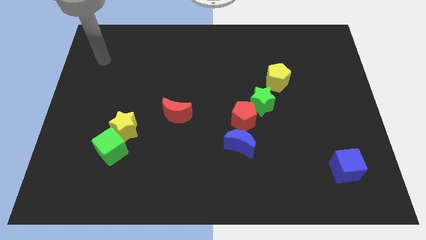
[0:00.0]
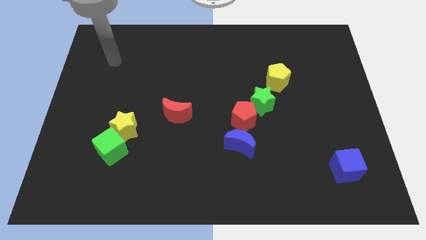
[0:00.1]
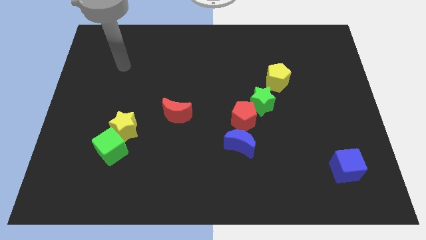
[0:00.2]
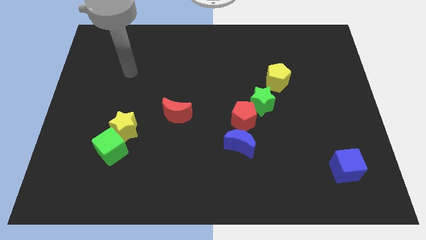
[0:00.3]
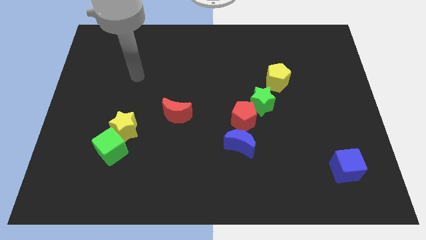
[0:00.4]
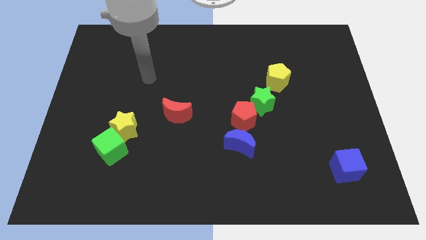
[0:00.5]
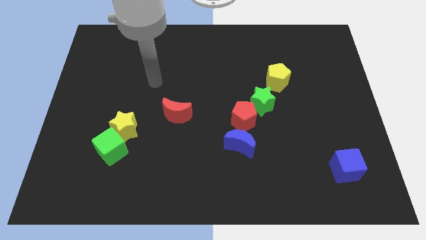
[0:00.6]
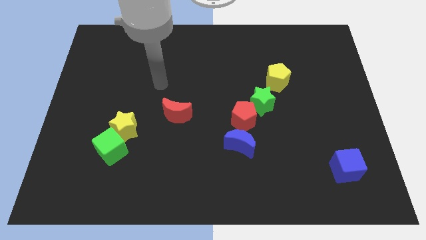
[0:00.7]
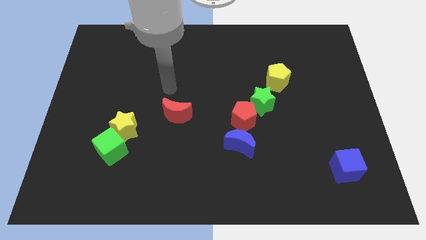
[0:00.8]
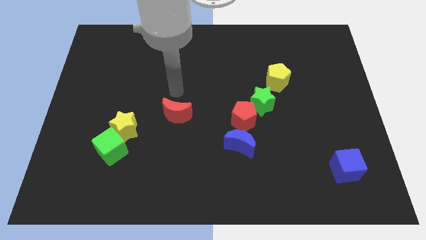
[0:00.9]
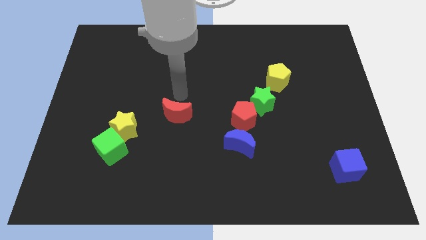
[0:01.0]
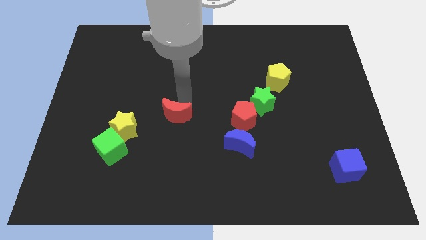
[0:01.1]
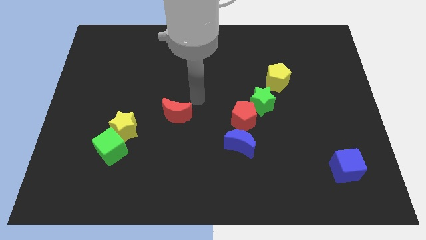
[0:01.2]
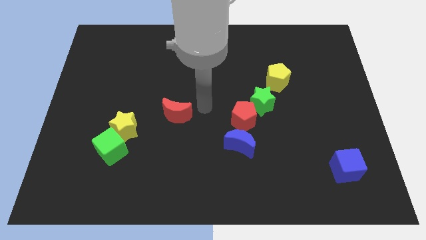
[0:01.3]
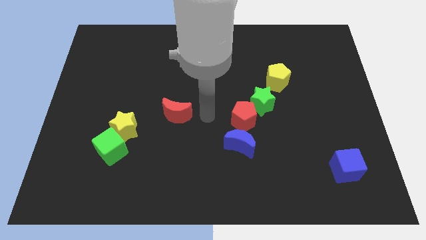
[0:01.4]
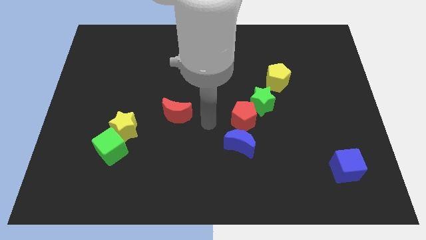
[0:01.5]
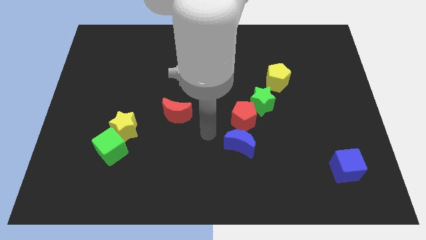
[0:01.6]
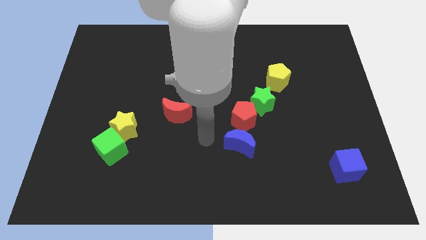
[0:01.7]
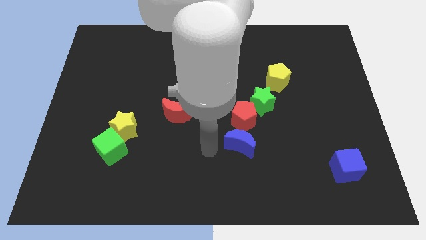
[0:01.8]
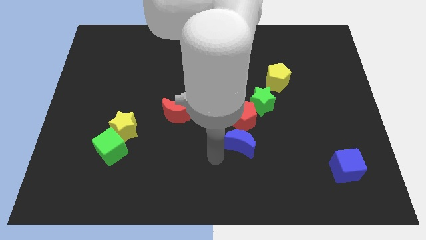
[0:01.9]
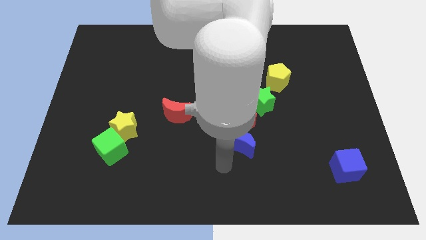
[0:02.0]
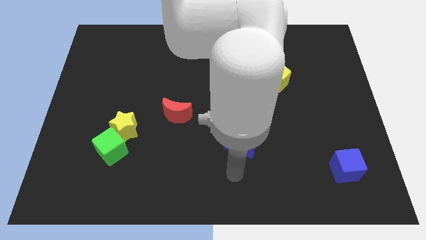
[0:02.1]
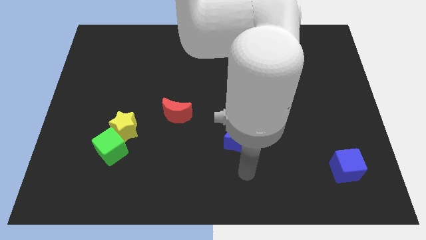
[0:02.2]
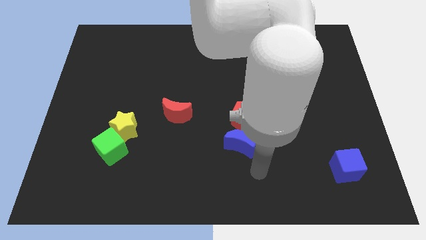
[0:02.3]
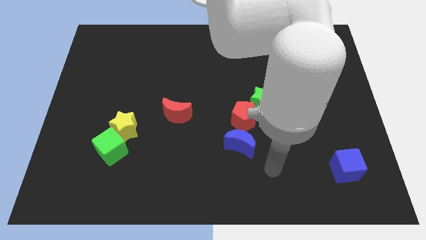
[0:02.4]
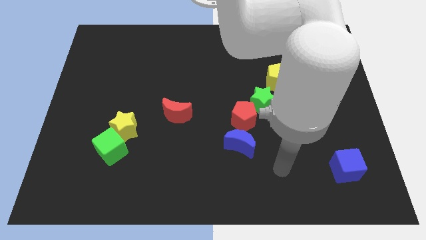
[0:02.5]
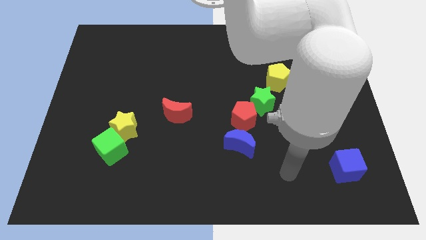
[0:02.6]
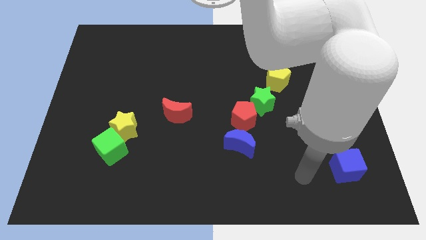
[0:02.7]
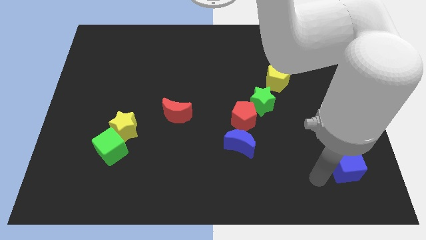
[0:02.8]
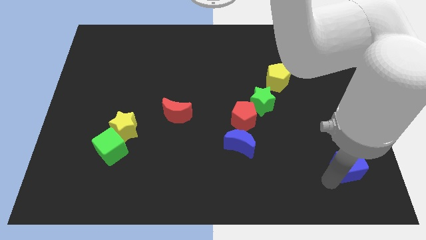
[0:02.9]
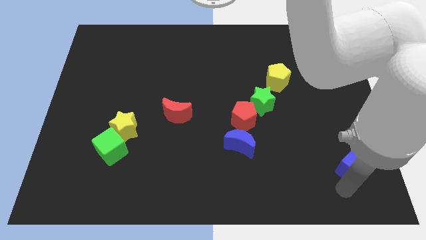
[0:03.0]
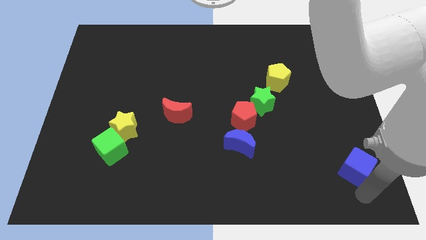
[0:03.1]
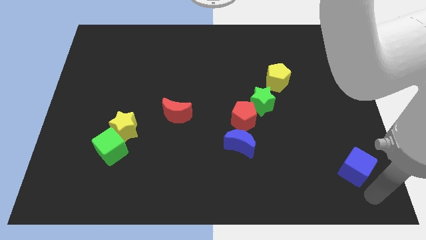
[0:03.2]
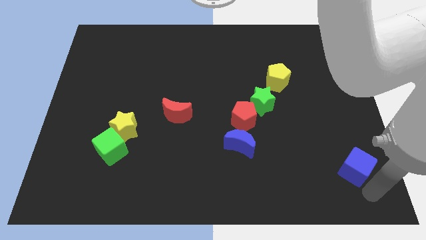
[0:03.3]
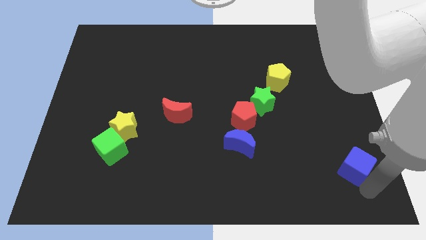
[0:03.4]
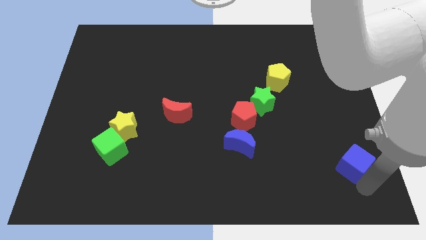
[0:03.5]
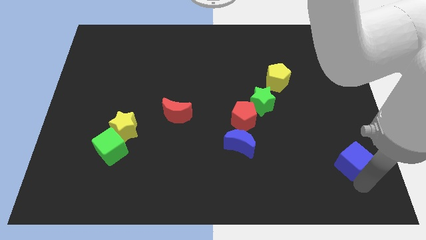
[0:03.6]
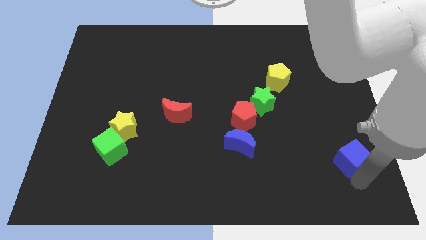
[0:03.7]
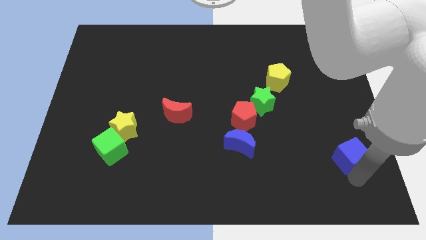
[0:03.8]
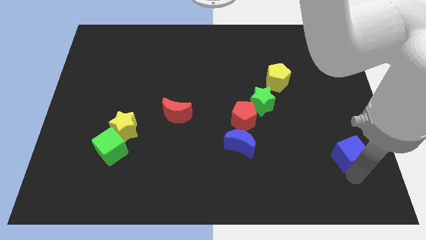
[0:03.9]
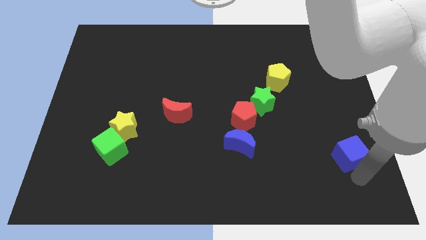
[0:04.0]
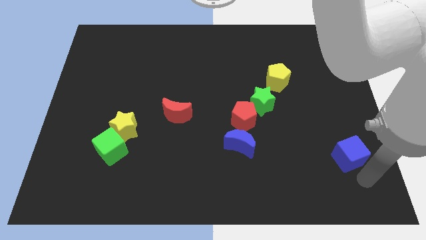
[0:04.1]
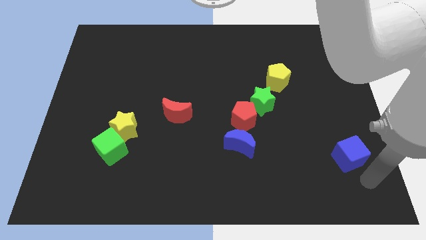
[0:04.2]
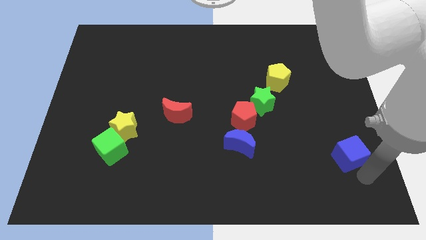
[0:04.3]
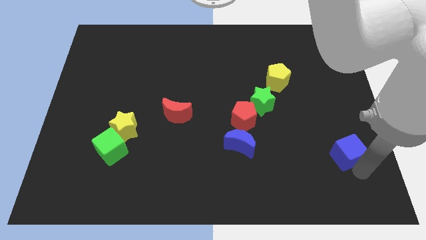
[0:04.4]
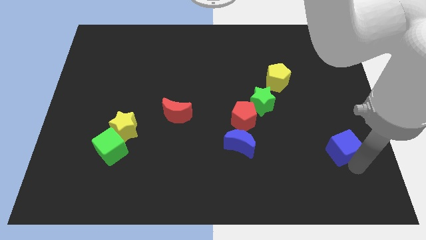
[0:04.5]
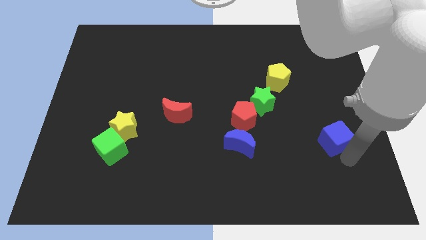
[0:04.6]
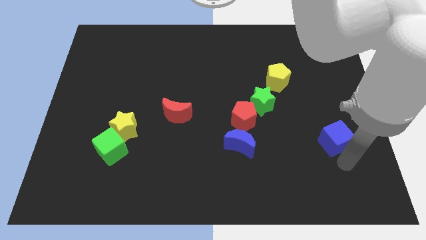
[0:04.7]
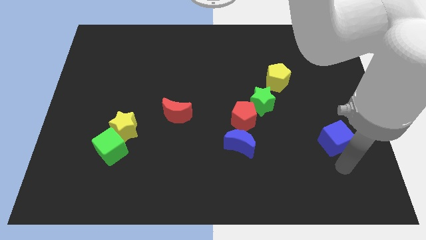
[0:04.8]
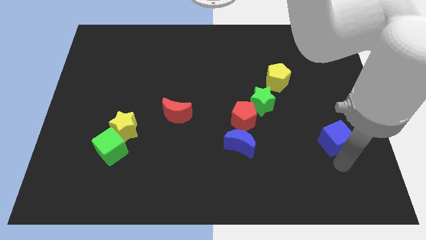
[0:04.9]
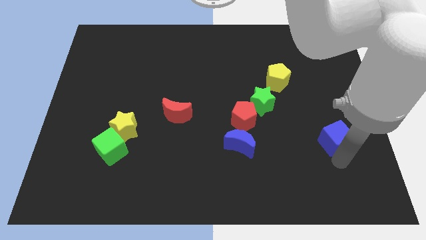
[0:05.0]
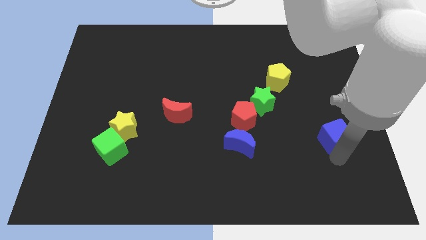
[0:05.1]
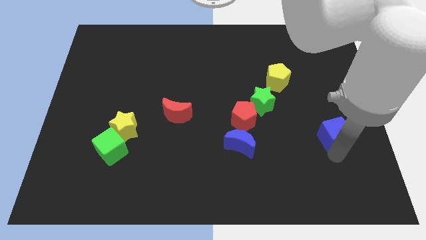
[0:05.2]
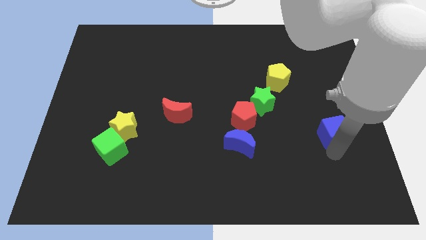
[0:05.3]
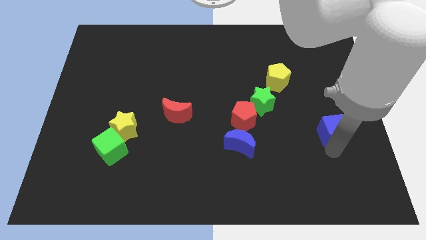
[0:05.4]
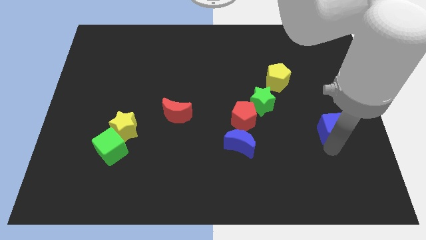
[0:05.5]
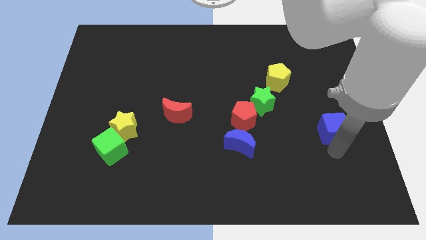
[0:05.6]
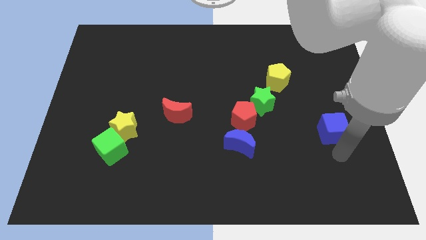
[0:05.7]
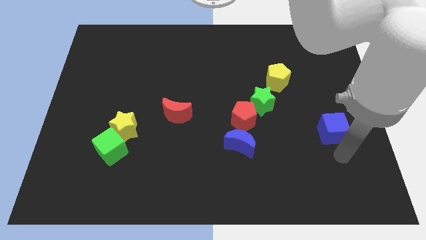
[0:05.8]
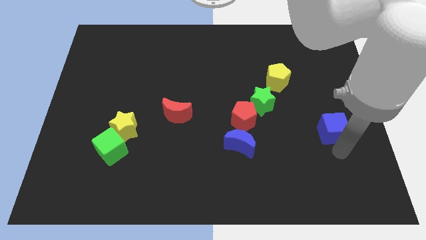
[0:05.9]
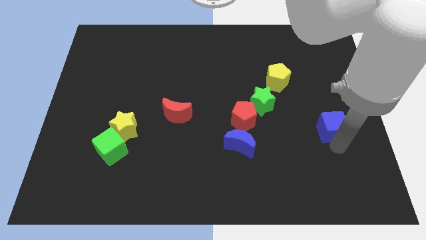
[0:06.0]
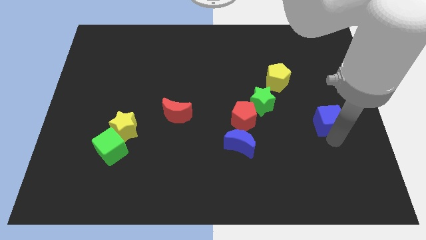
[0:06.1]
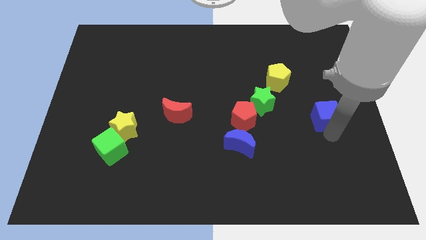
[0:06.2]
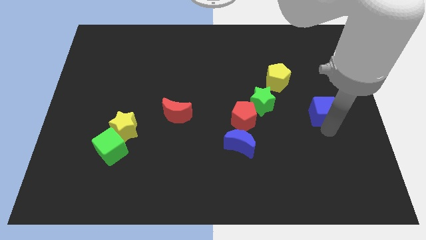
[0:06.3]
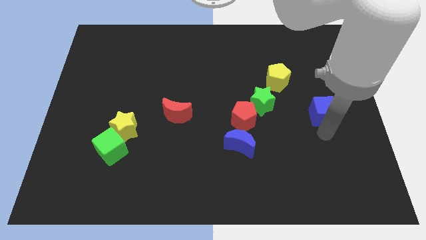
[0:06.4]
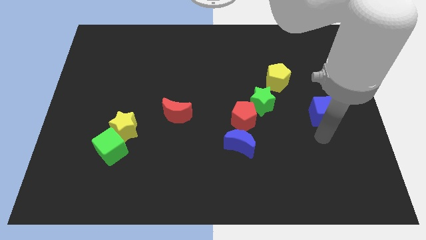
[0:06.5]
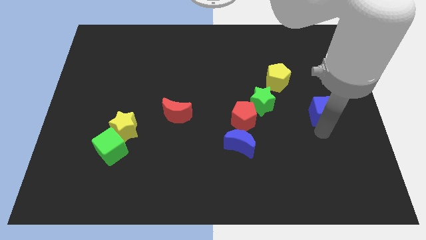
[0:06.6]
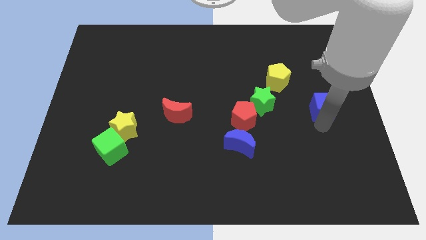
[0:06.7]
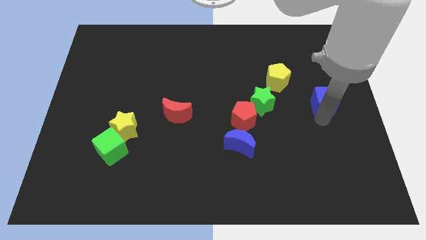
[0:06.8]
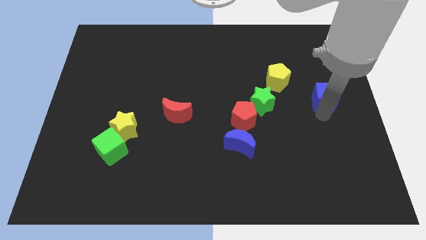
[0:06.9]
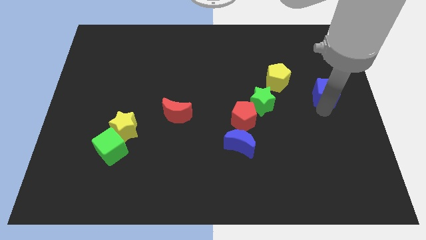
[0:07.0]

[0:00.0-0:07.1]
move the blue cube upwards

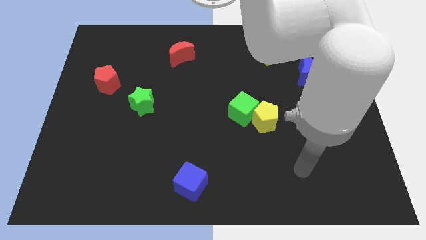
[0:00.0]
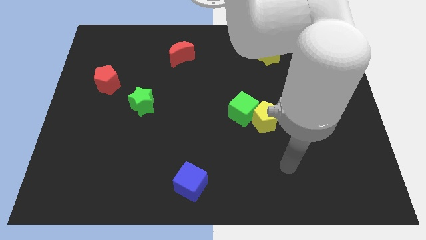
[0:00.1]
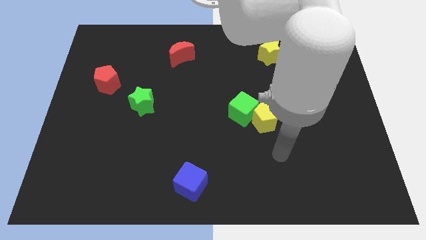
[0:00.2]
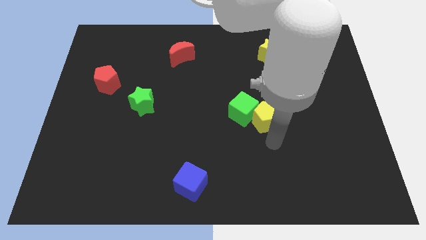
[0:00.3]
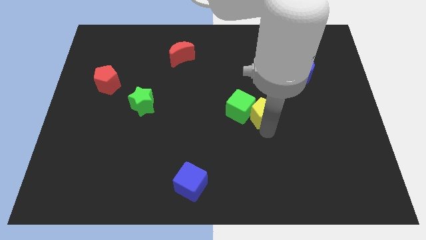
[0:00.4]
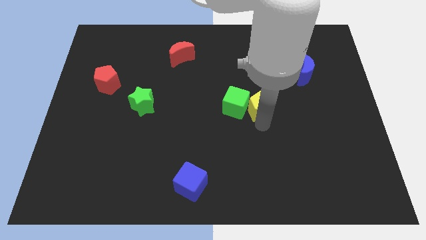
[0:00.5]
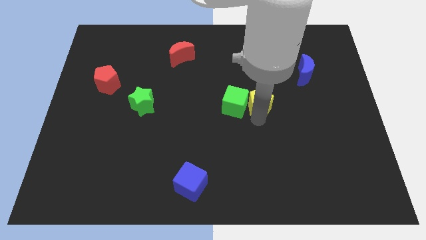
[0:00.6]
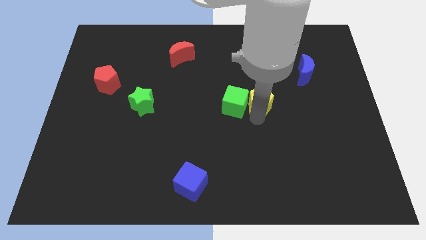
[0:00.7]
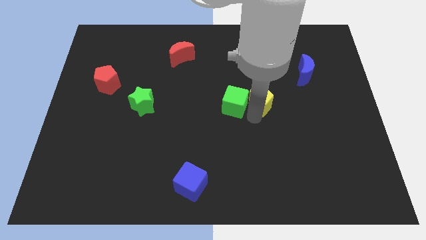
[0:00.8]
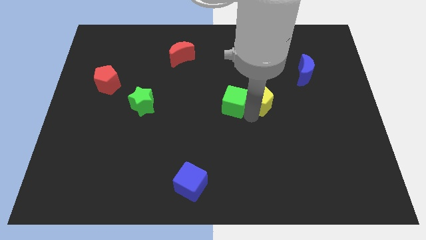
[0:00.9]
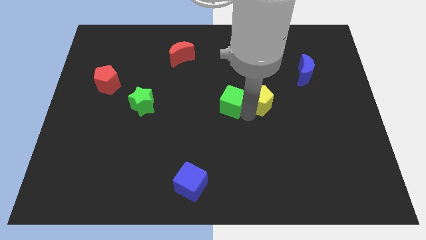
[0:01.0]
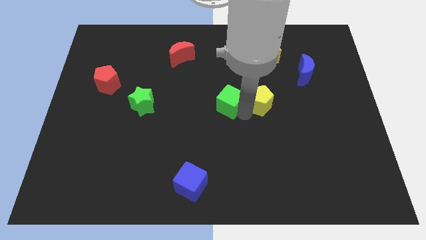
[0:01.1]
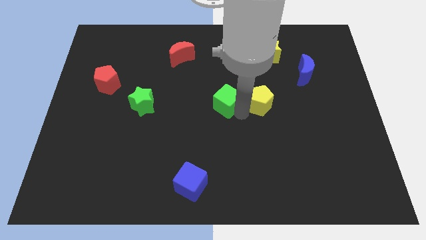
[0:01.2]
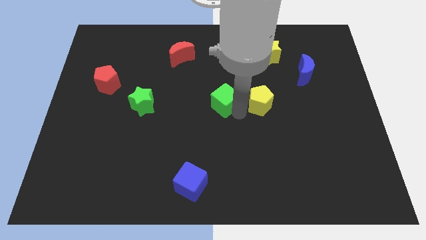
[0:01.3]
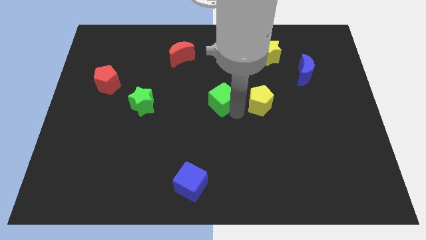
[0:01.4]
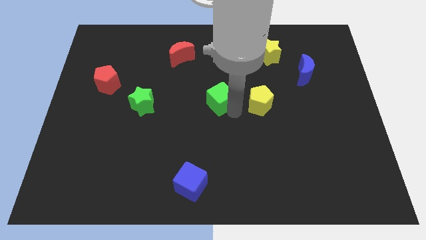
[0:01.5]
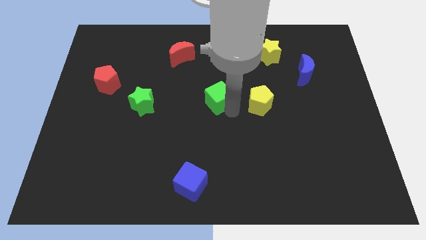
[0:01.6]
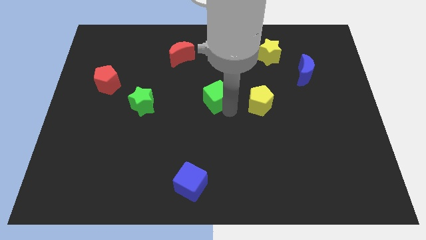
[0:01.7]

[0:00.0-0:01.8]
push the green cube slightly upwards and then to the left
